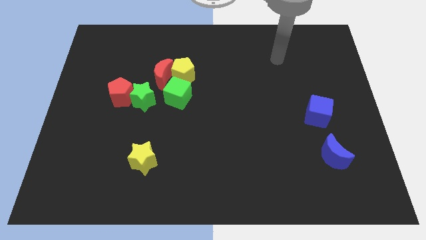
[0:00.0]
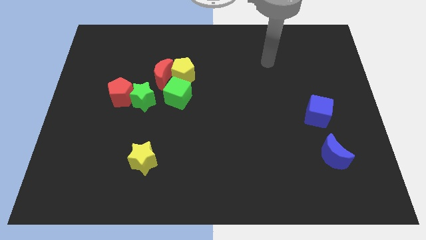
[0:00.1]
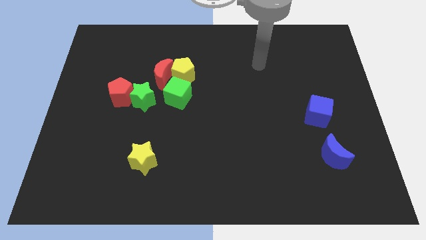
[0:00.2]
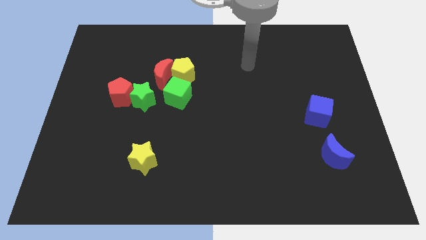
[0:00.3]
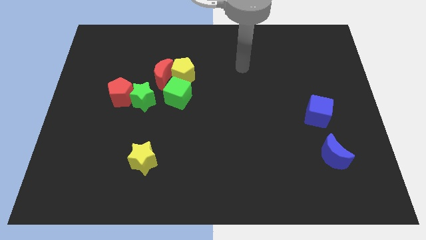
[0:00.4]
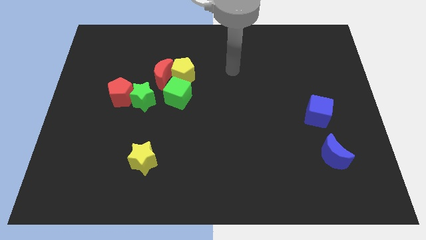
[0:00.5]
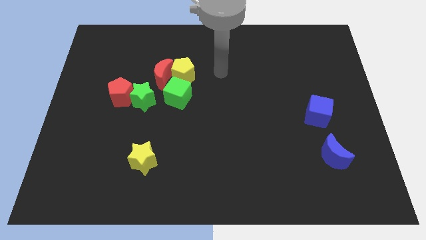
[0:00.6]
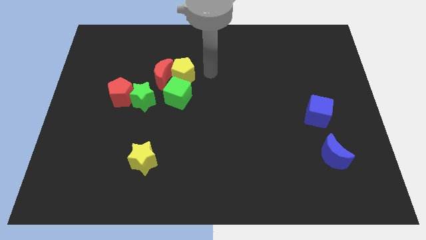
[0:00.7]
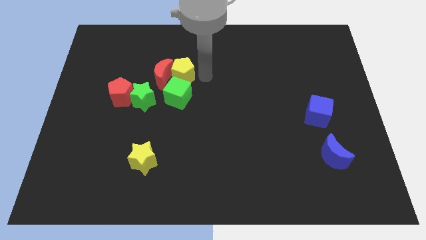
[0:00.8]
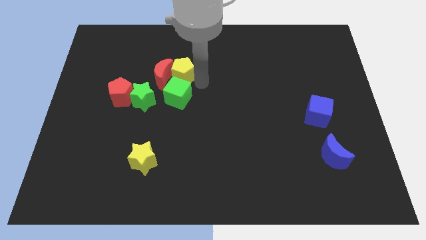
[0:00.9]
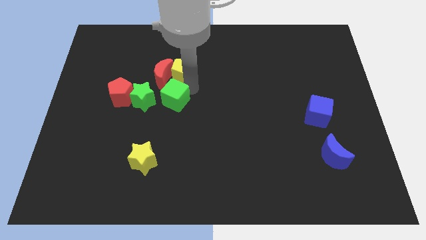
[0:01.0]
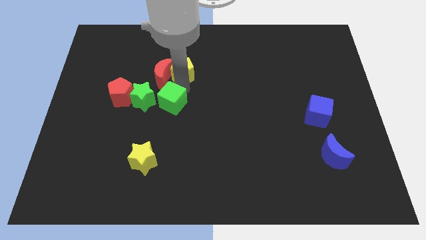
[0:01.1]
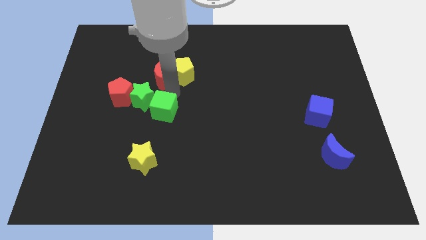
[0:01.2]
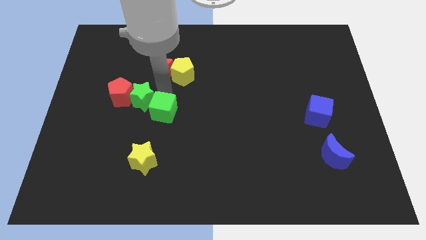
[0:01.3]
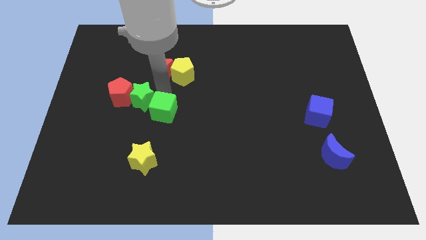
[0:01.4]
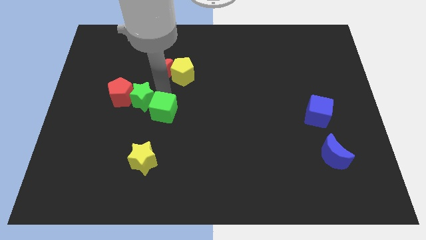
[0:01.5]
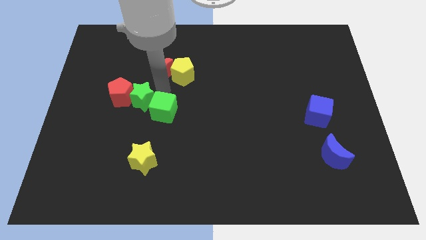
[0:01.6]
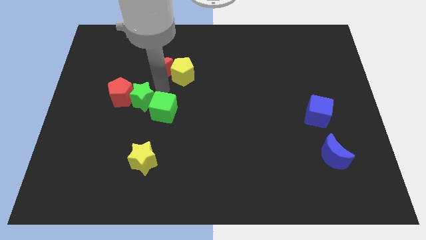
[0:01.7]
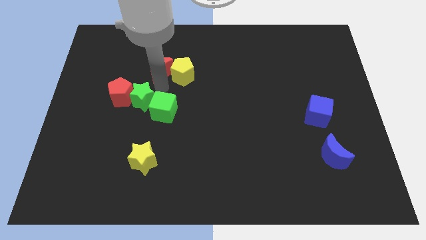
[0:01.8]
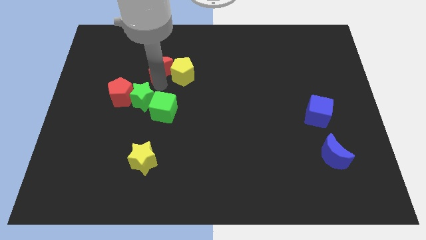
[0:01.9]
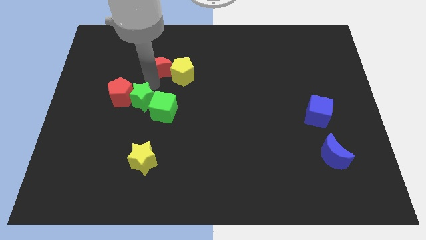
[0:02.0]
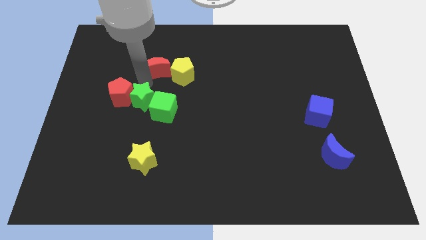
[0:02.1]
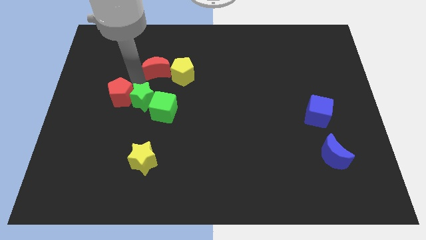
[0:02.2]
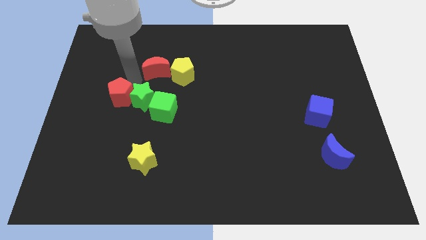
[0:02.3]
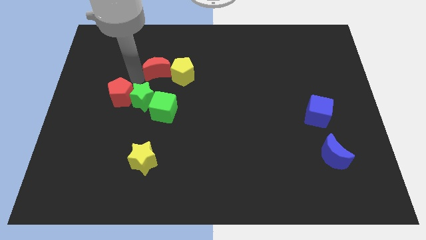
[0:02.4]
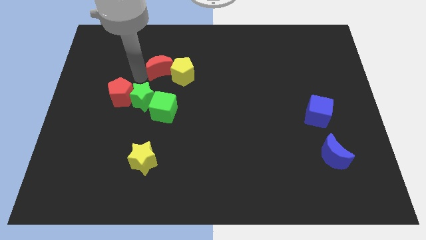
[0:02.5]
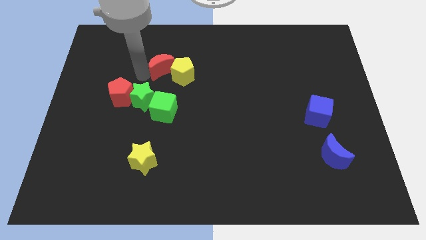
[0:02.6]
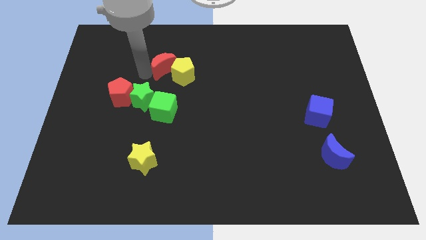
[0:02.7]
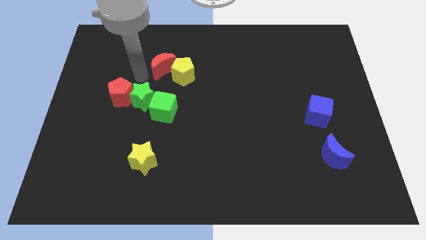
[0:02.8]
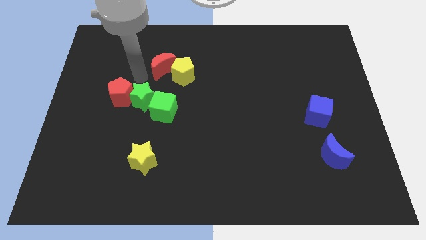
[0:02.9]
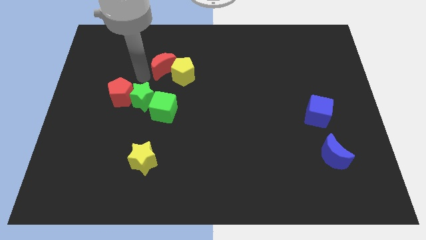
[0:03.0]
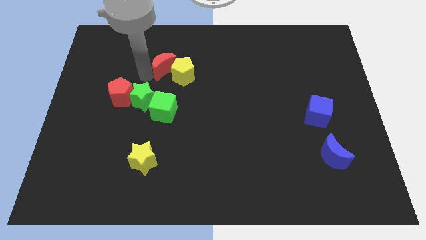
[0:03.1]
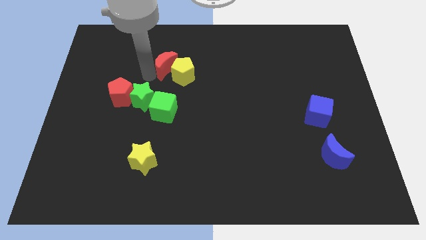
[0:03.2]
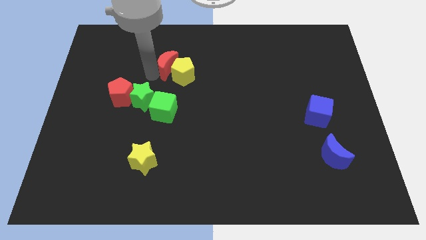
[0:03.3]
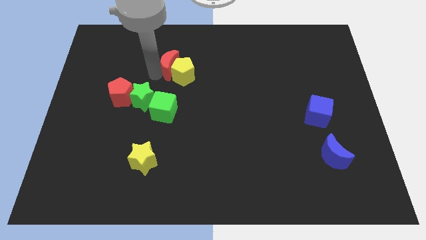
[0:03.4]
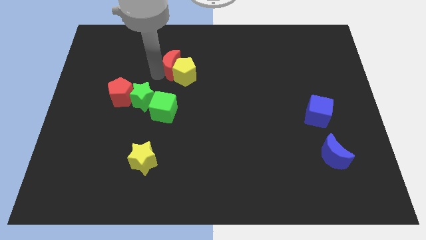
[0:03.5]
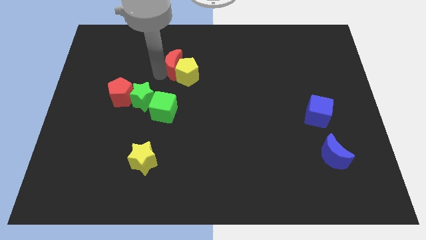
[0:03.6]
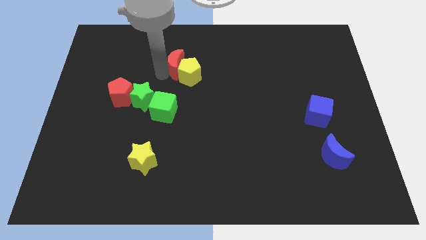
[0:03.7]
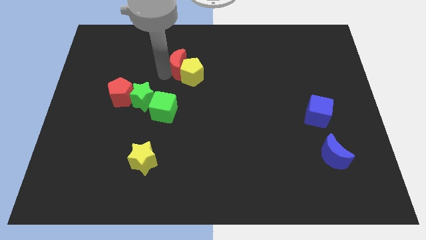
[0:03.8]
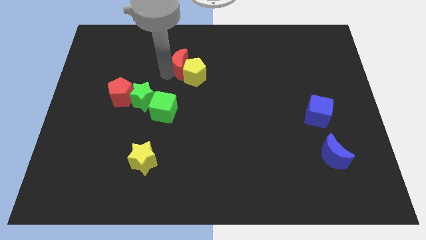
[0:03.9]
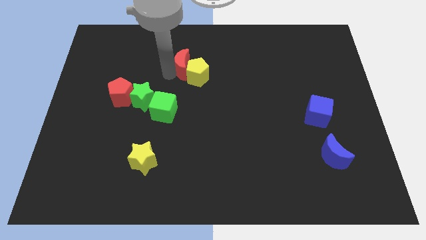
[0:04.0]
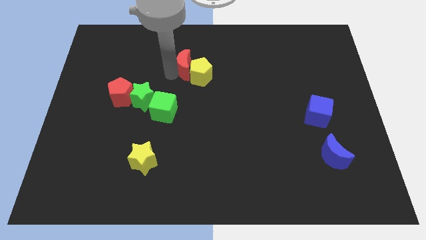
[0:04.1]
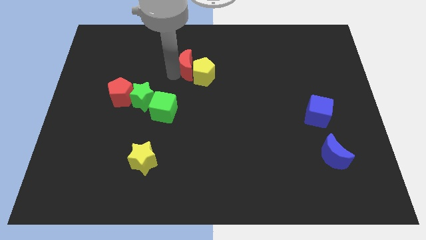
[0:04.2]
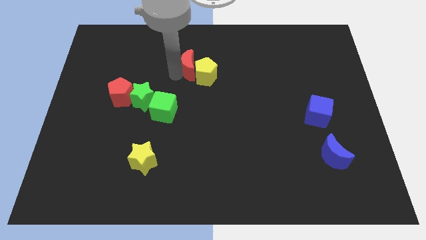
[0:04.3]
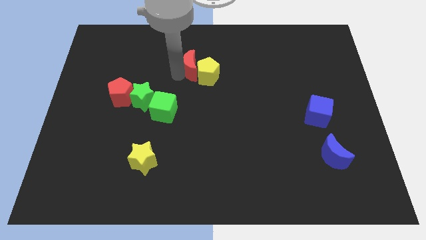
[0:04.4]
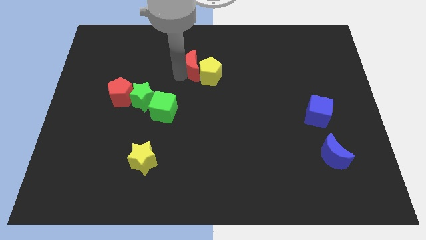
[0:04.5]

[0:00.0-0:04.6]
slide the red moon a little to the right

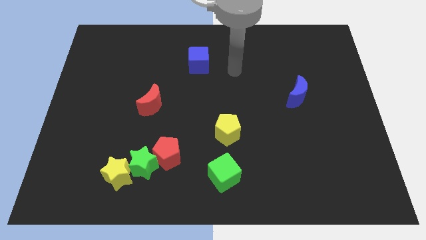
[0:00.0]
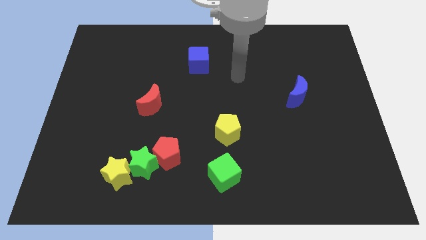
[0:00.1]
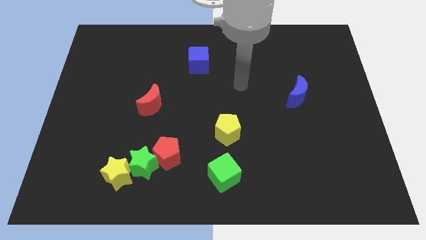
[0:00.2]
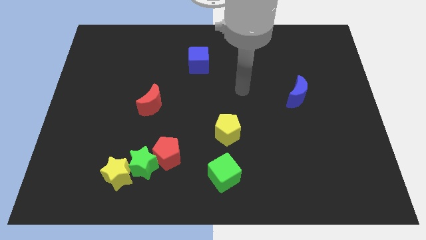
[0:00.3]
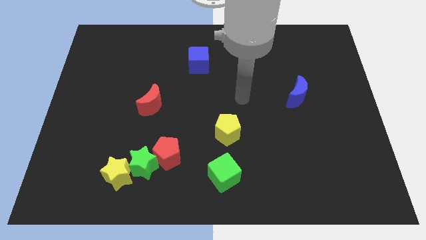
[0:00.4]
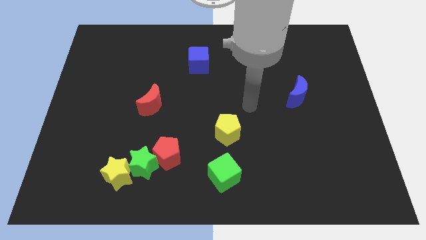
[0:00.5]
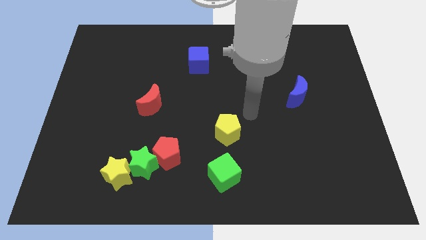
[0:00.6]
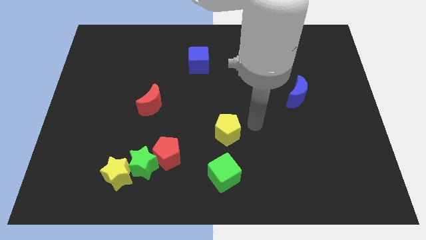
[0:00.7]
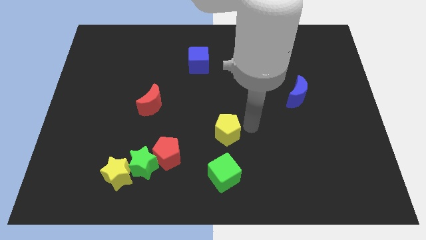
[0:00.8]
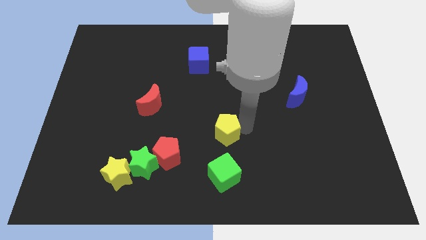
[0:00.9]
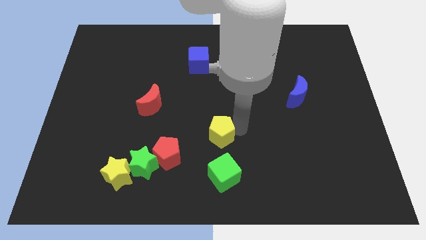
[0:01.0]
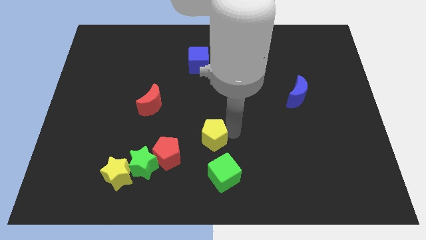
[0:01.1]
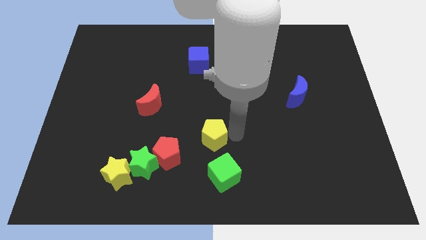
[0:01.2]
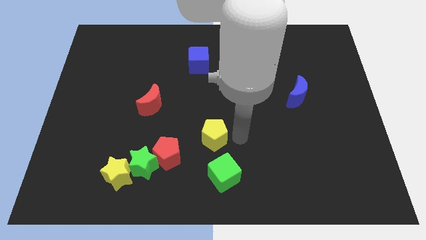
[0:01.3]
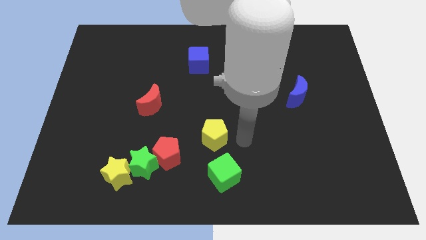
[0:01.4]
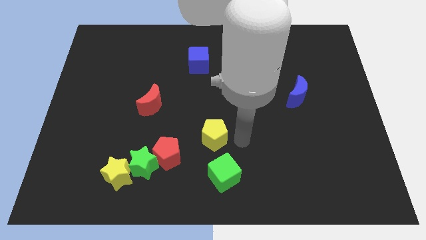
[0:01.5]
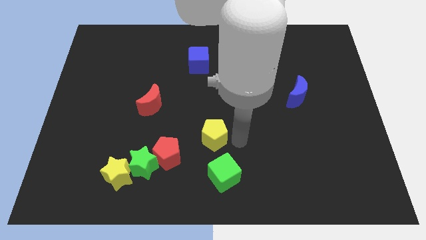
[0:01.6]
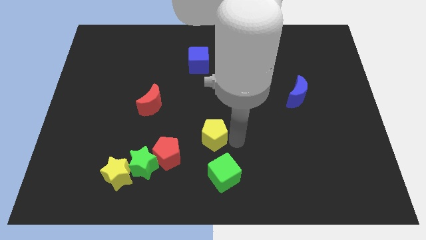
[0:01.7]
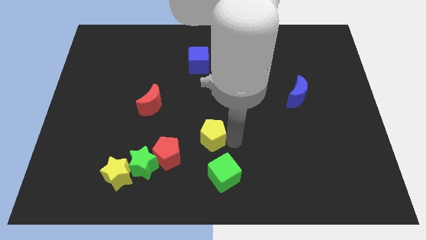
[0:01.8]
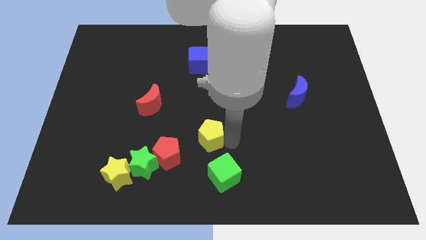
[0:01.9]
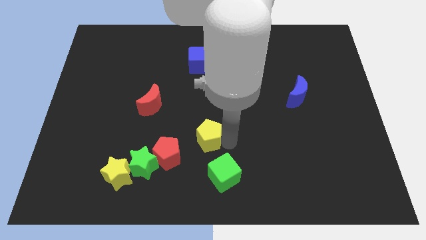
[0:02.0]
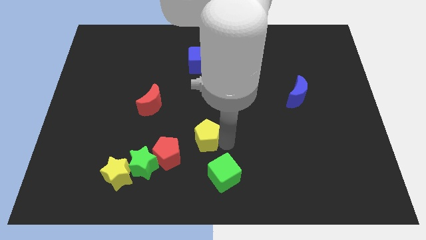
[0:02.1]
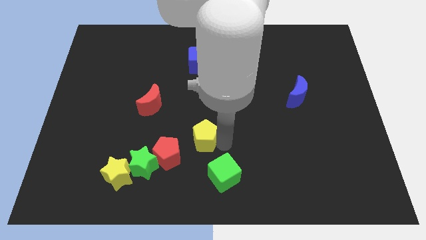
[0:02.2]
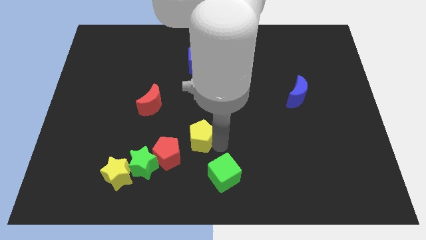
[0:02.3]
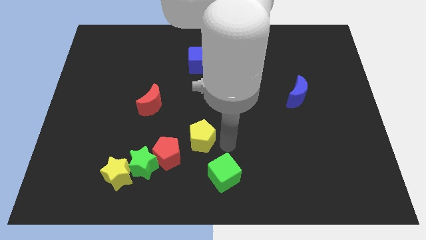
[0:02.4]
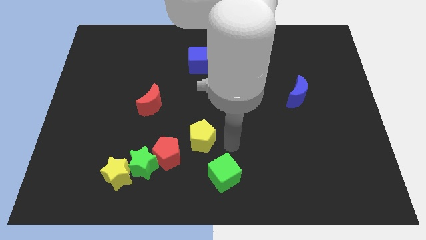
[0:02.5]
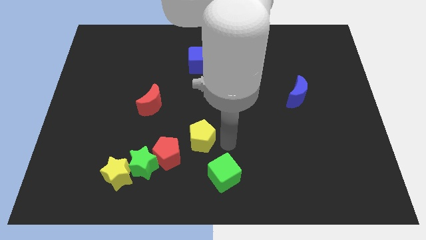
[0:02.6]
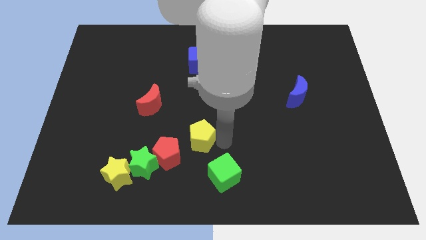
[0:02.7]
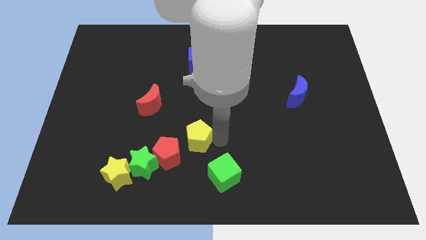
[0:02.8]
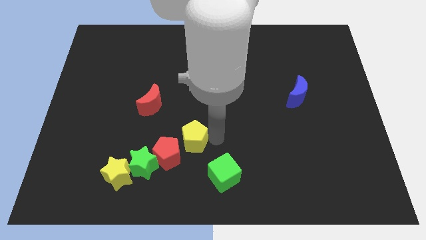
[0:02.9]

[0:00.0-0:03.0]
slightly slide the yellow pentagon left

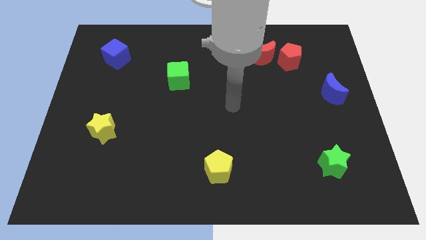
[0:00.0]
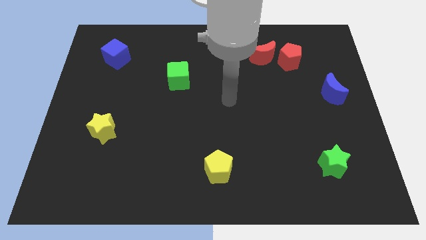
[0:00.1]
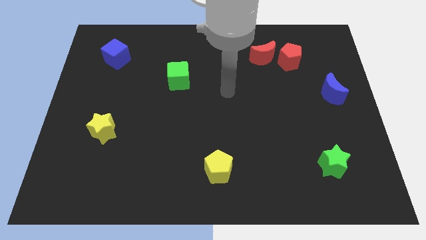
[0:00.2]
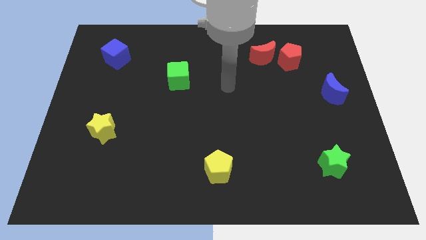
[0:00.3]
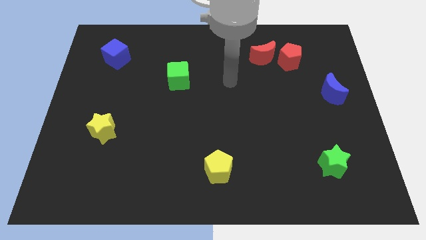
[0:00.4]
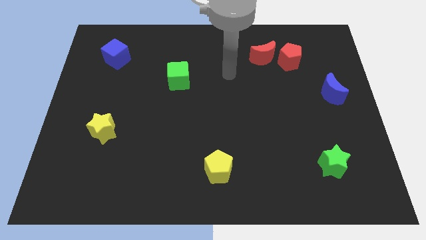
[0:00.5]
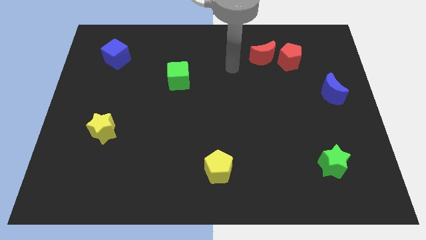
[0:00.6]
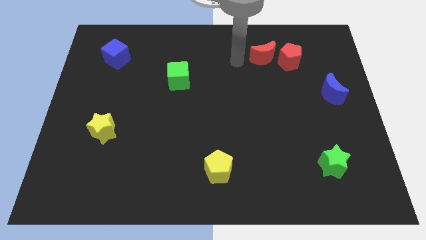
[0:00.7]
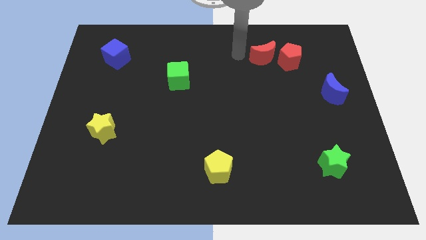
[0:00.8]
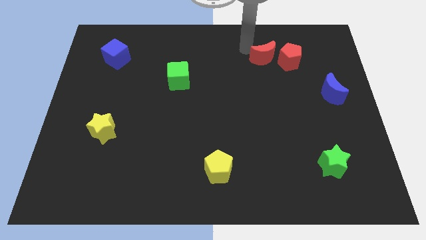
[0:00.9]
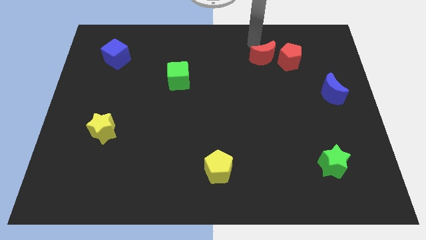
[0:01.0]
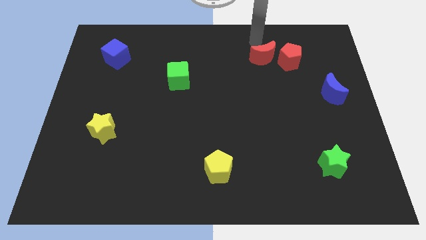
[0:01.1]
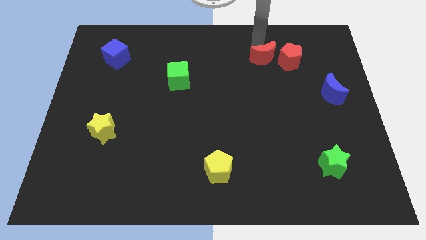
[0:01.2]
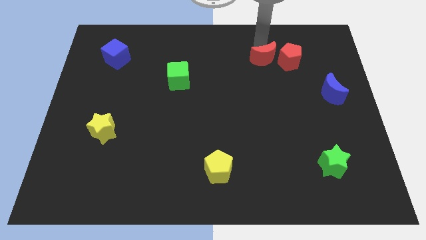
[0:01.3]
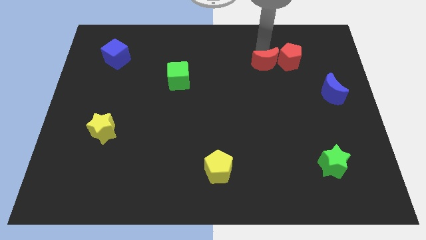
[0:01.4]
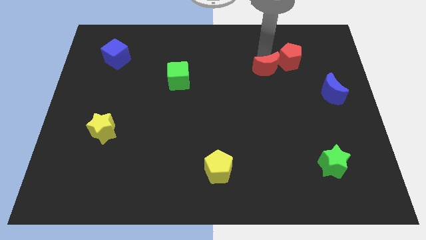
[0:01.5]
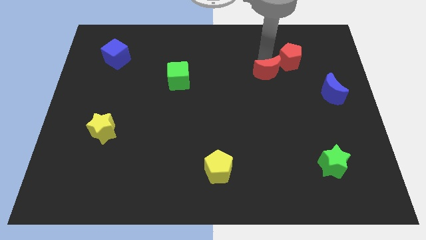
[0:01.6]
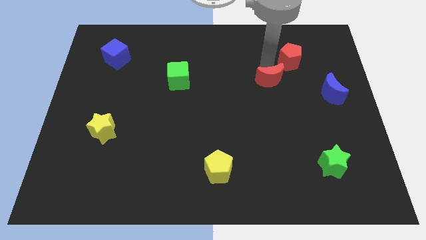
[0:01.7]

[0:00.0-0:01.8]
slightly move the red moon downwards
